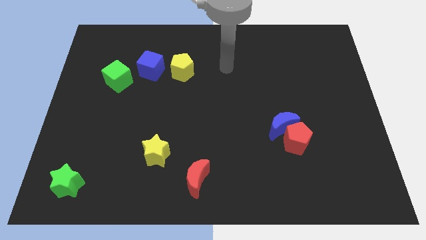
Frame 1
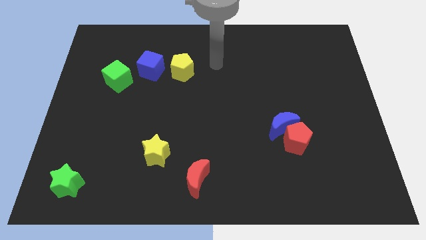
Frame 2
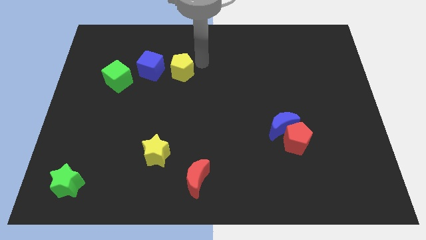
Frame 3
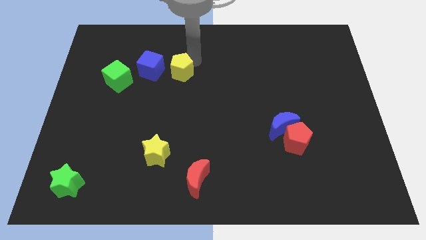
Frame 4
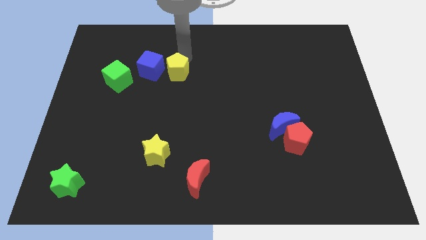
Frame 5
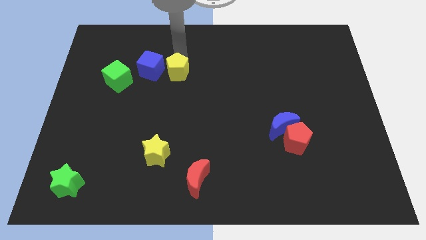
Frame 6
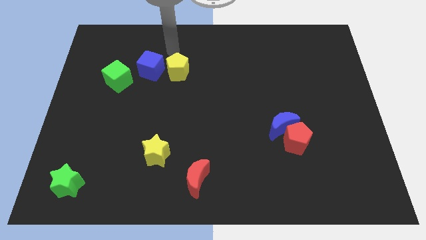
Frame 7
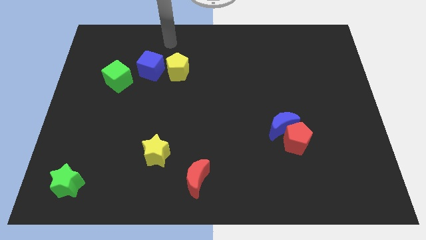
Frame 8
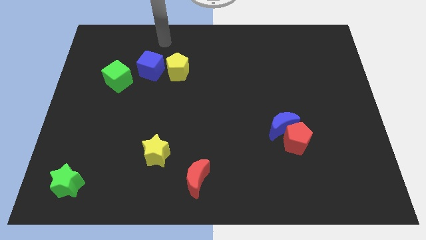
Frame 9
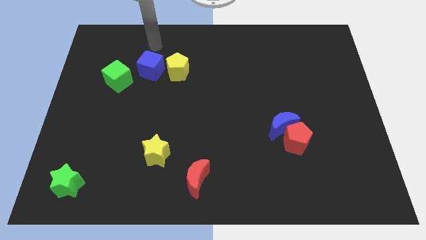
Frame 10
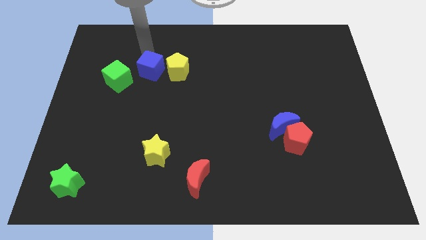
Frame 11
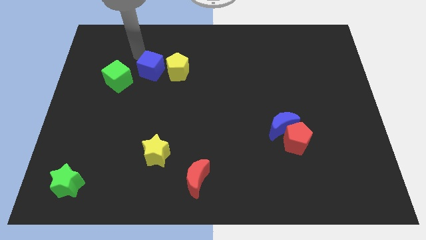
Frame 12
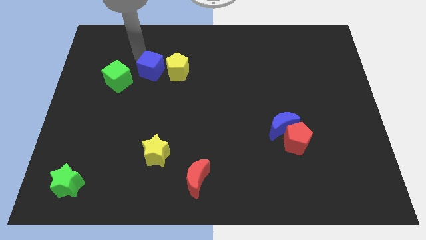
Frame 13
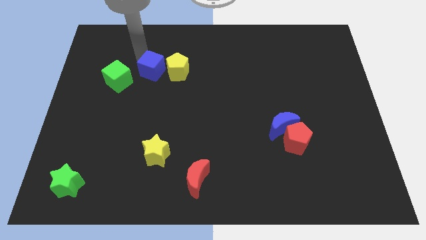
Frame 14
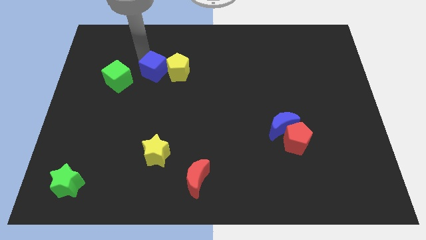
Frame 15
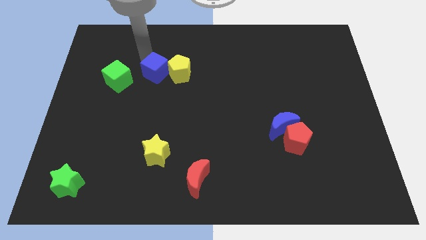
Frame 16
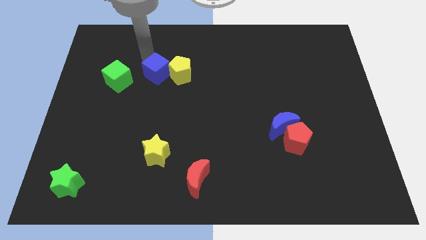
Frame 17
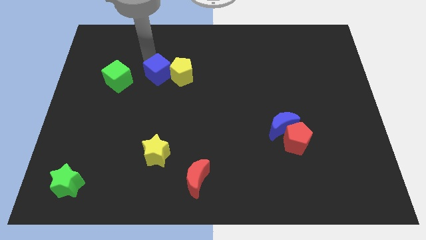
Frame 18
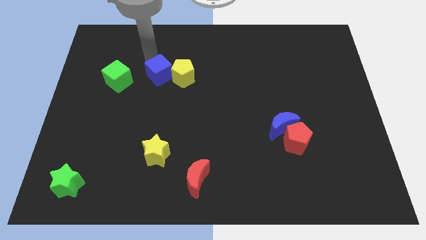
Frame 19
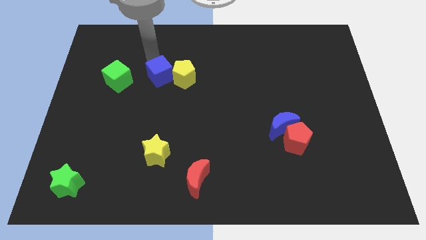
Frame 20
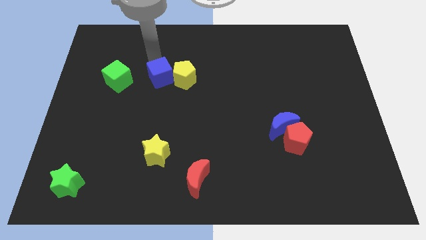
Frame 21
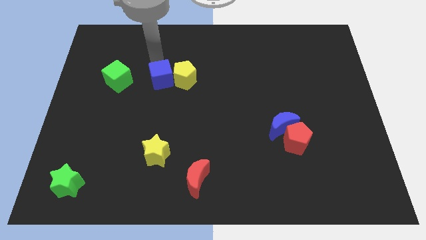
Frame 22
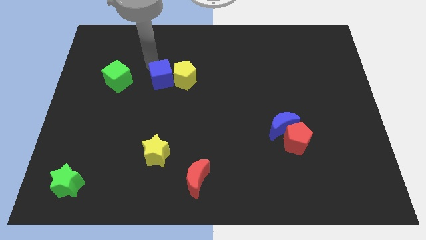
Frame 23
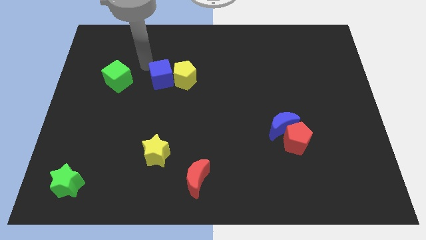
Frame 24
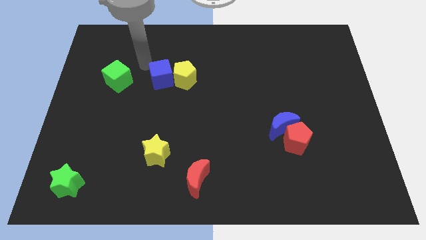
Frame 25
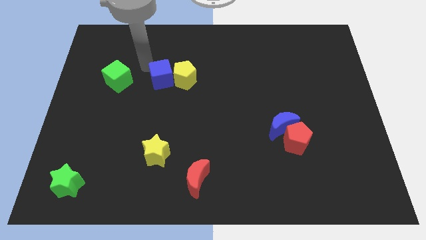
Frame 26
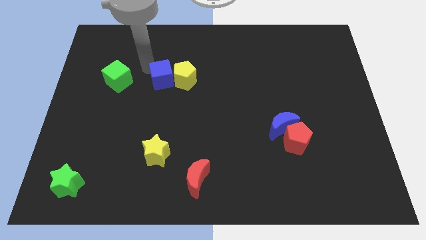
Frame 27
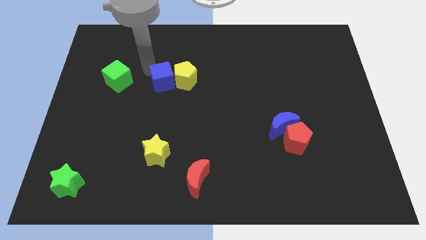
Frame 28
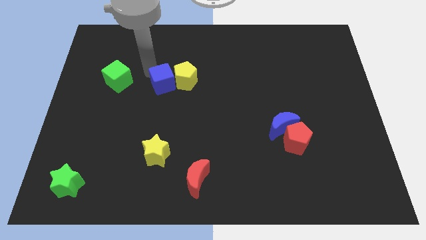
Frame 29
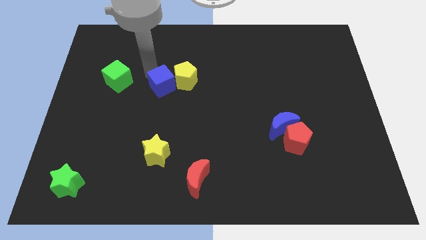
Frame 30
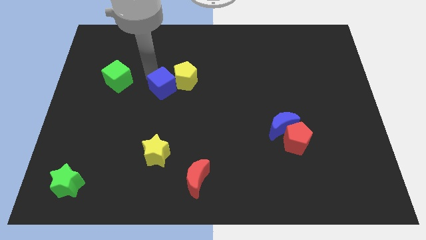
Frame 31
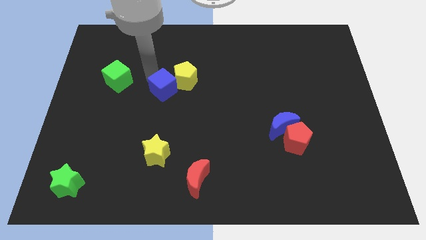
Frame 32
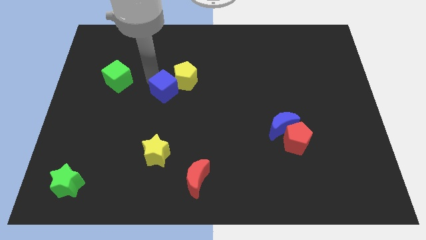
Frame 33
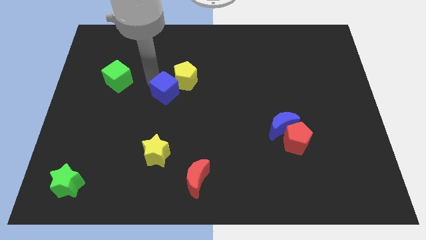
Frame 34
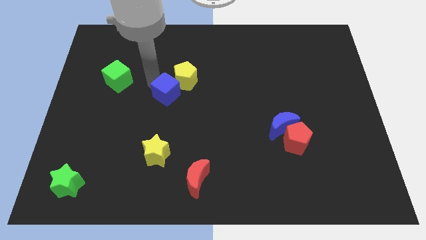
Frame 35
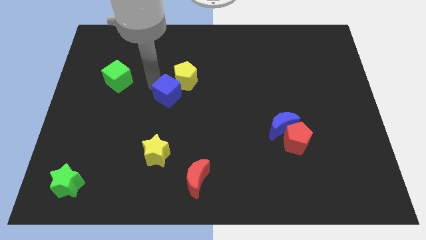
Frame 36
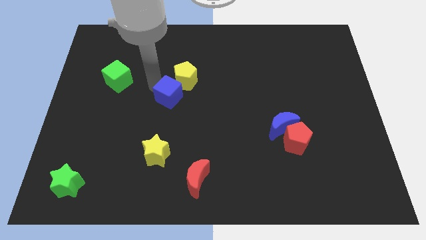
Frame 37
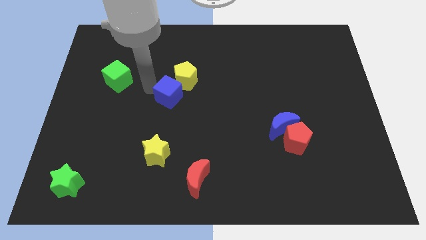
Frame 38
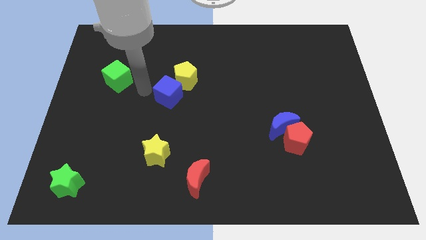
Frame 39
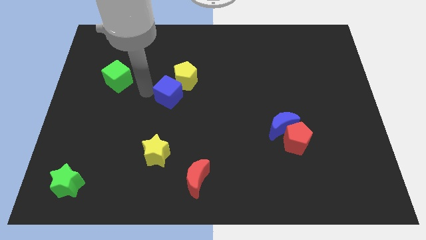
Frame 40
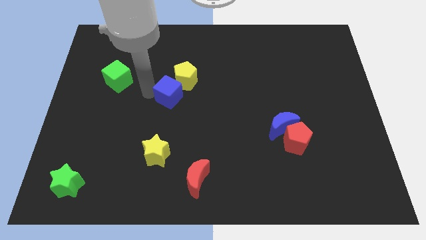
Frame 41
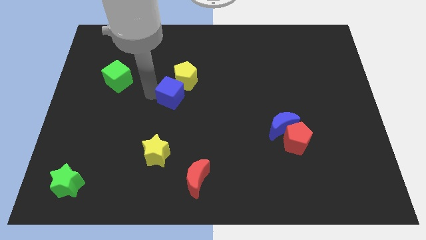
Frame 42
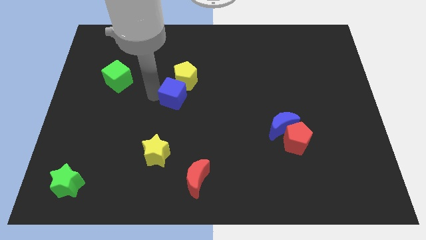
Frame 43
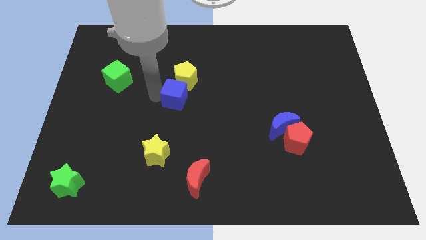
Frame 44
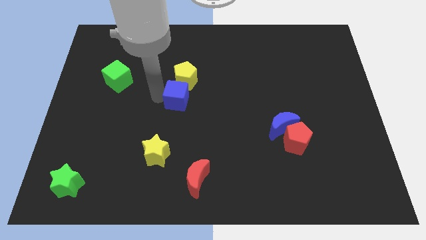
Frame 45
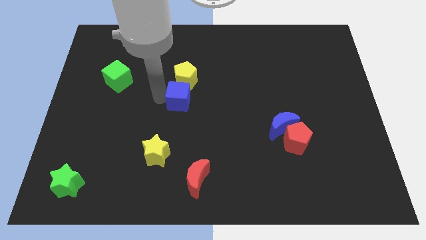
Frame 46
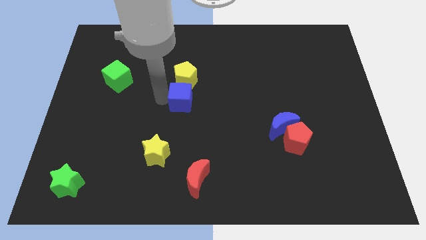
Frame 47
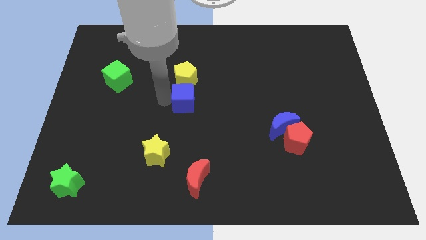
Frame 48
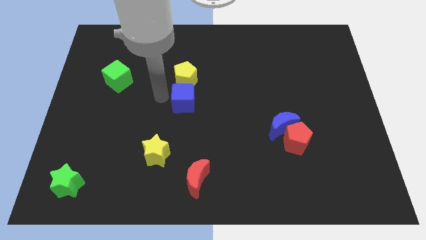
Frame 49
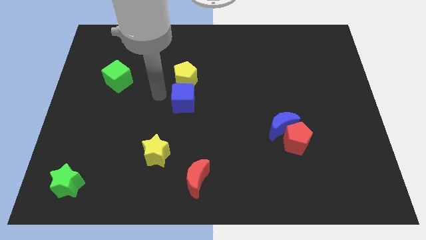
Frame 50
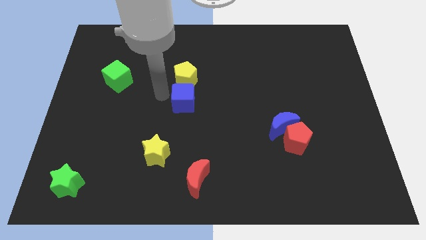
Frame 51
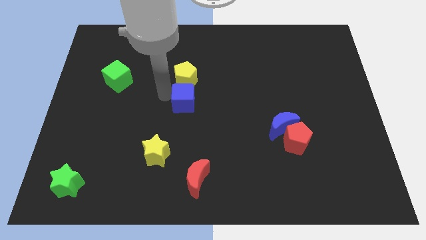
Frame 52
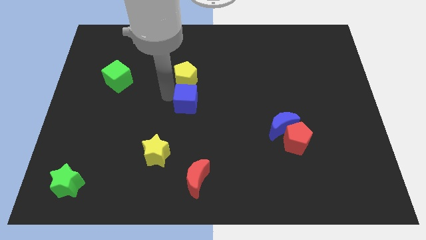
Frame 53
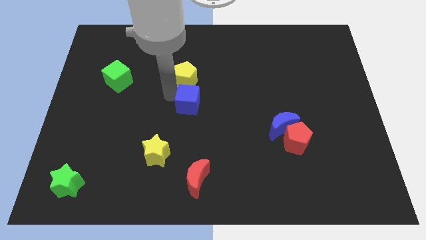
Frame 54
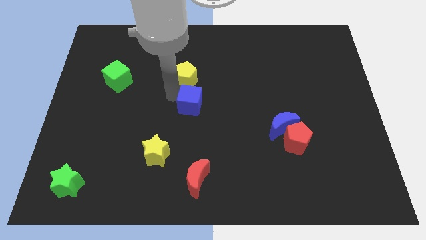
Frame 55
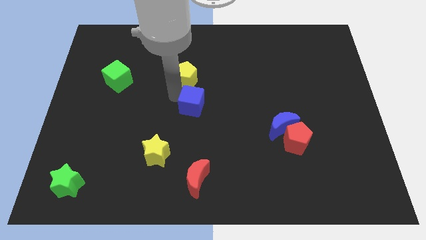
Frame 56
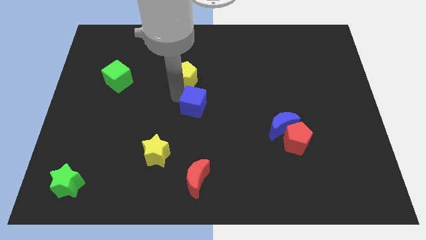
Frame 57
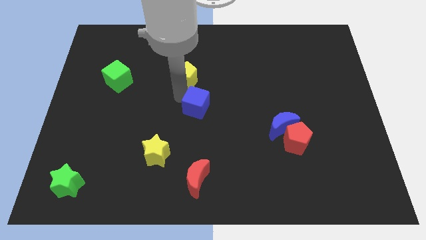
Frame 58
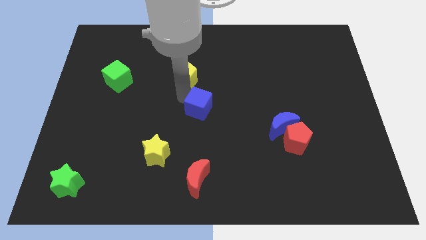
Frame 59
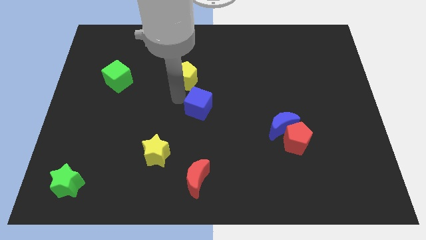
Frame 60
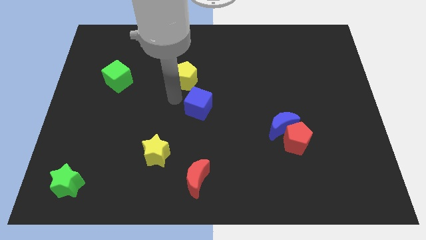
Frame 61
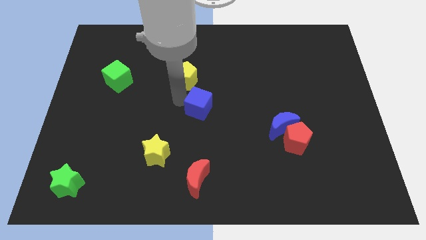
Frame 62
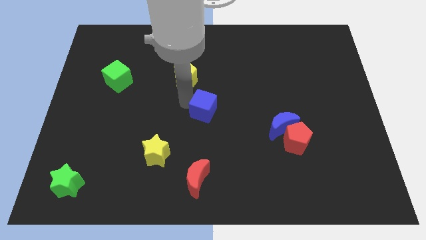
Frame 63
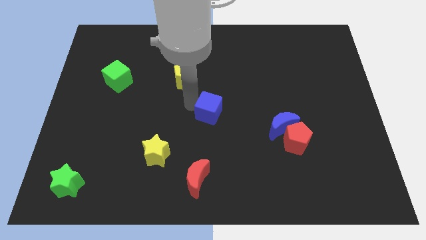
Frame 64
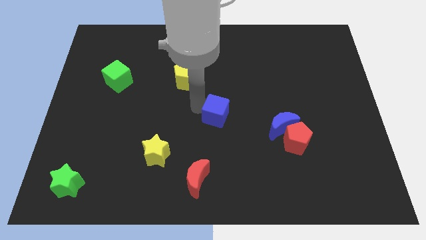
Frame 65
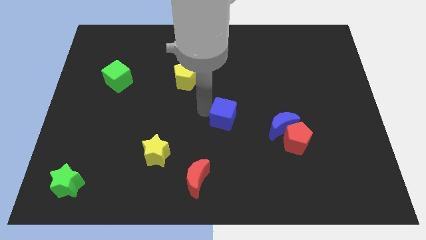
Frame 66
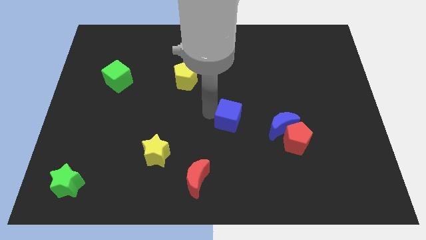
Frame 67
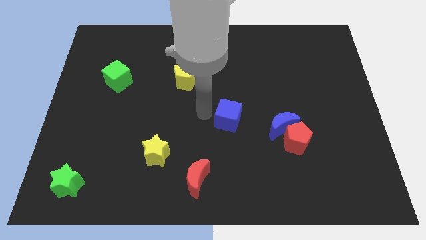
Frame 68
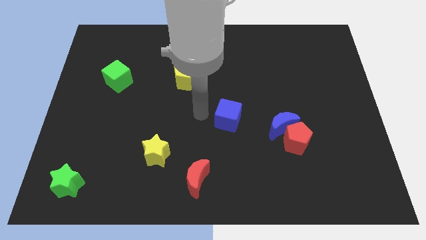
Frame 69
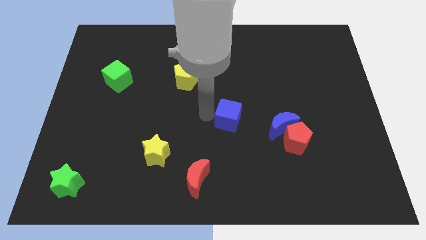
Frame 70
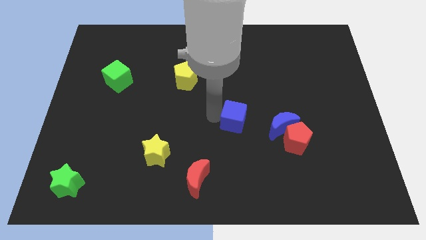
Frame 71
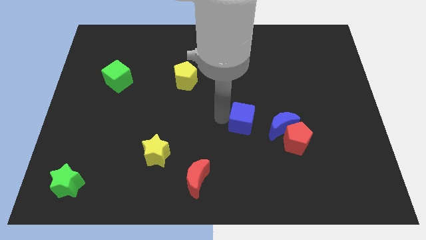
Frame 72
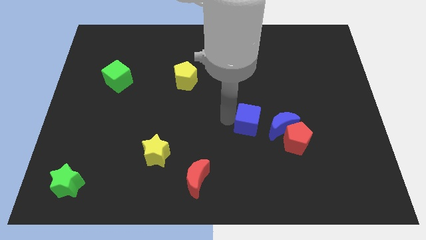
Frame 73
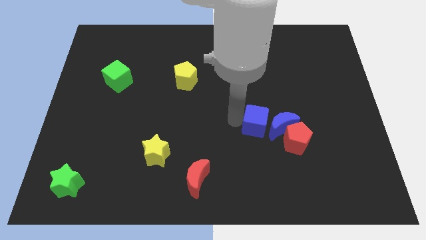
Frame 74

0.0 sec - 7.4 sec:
move the blue cube close to the blue moon
